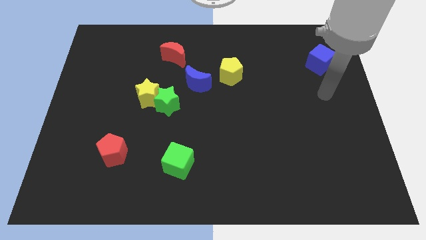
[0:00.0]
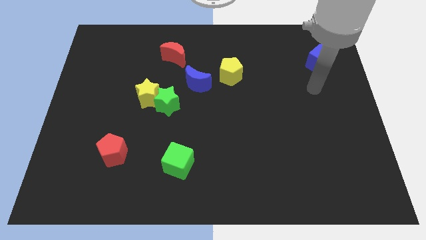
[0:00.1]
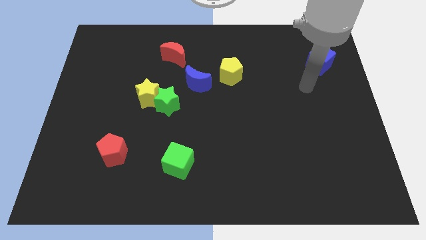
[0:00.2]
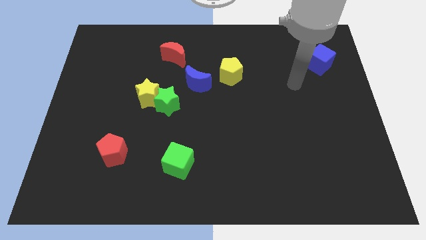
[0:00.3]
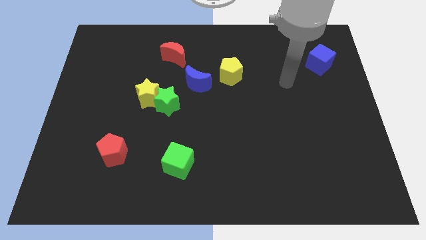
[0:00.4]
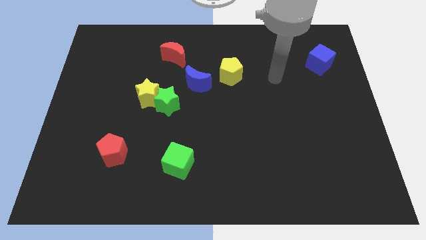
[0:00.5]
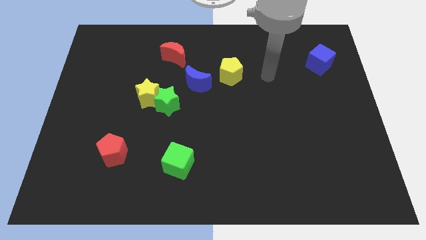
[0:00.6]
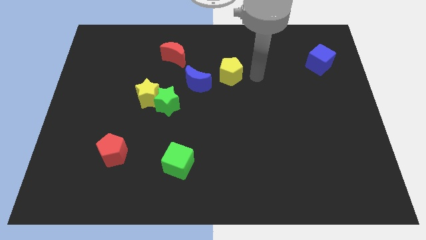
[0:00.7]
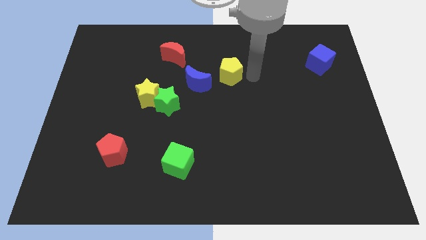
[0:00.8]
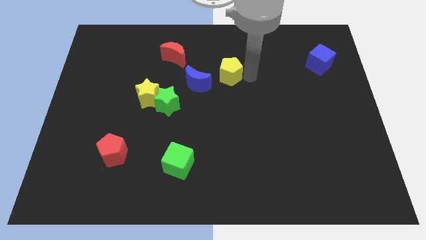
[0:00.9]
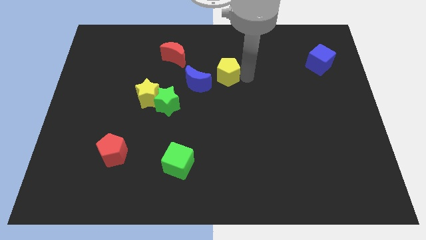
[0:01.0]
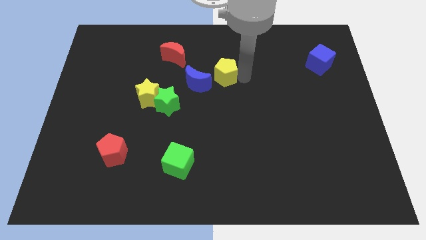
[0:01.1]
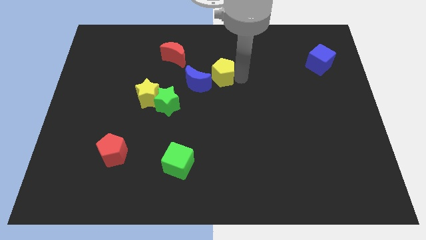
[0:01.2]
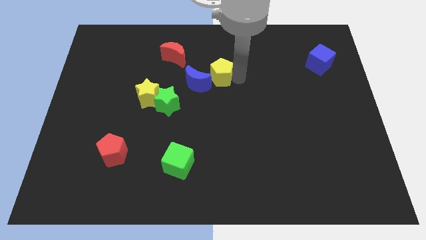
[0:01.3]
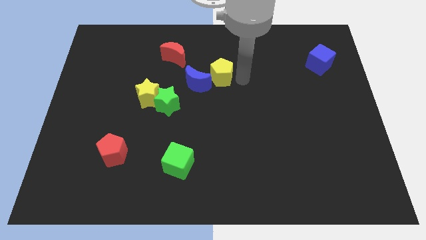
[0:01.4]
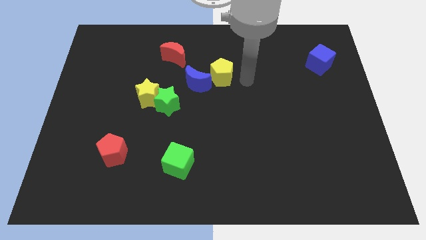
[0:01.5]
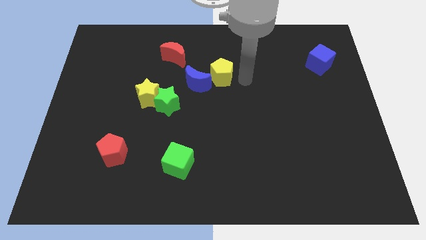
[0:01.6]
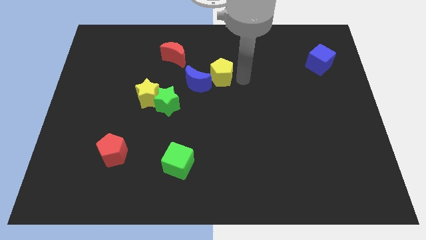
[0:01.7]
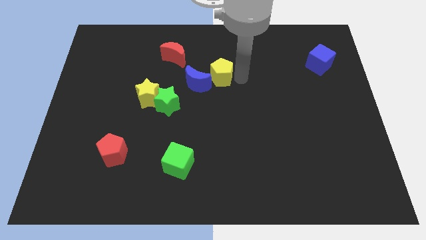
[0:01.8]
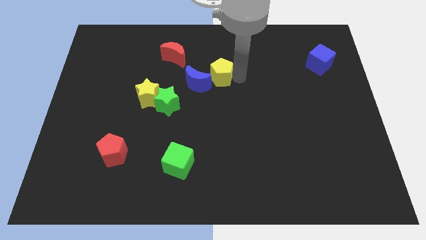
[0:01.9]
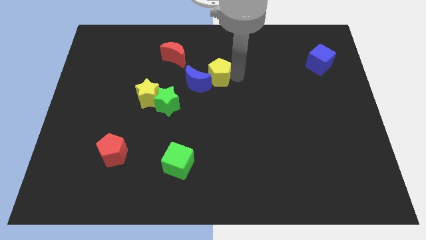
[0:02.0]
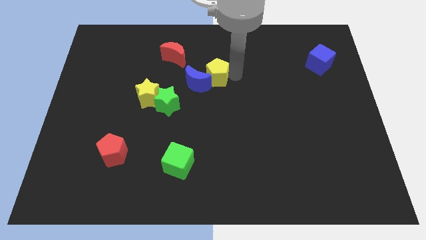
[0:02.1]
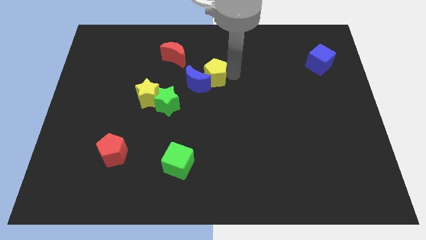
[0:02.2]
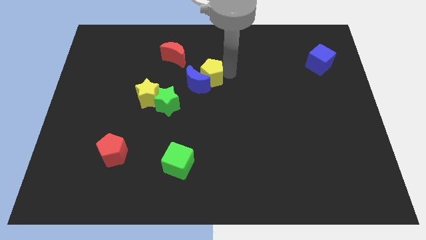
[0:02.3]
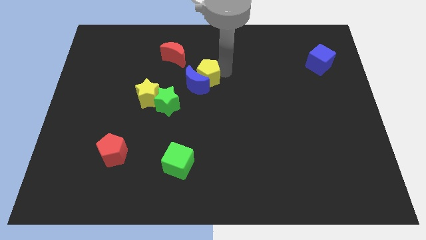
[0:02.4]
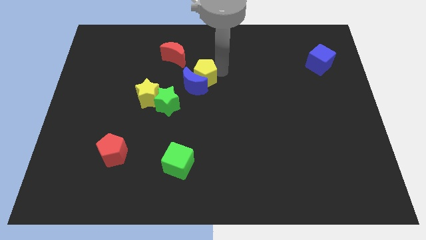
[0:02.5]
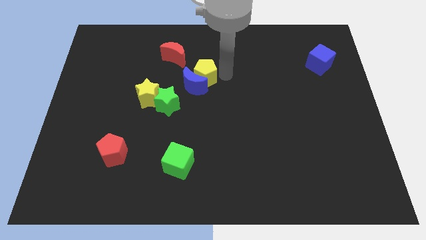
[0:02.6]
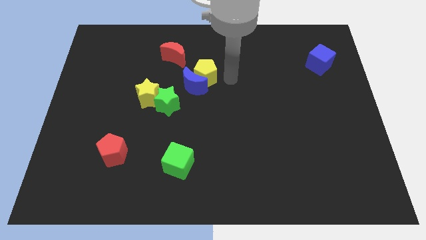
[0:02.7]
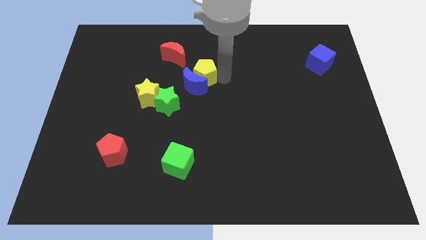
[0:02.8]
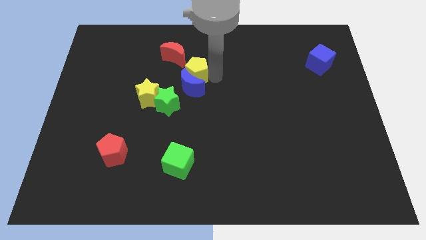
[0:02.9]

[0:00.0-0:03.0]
slide the yellow pentagon left a little

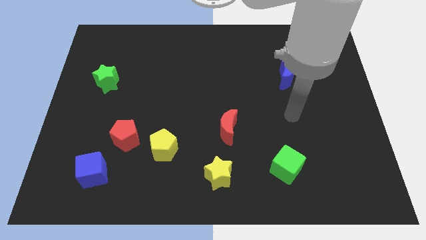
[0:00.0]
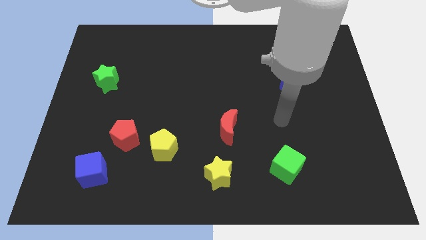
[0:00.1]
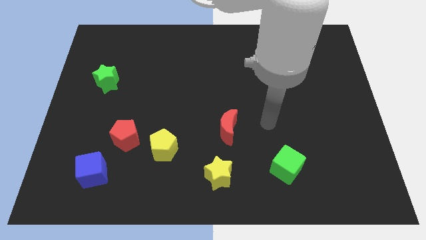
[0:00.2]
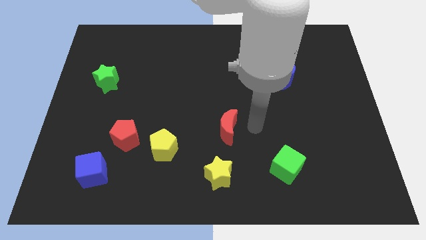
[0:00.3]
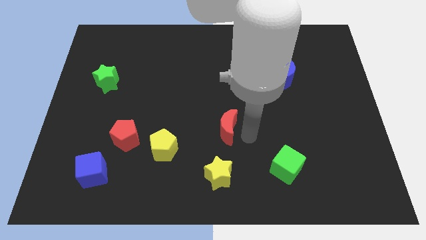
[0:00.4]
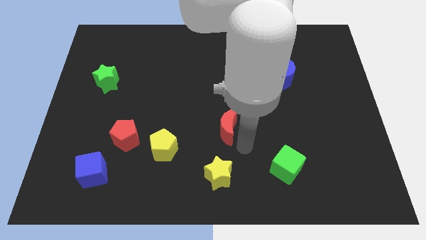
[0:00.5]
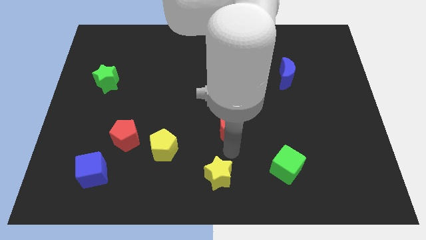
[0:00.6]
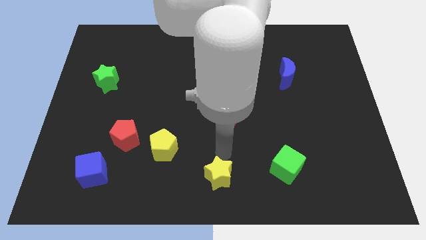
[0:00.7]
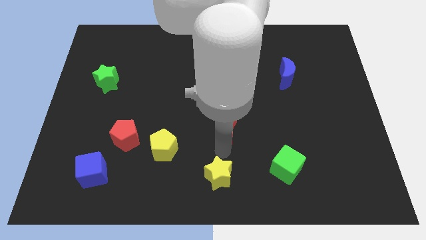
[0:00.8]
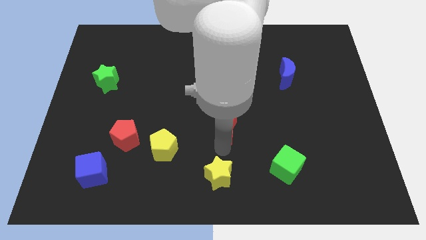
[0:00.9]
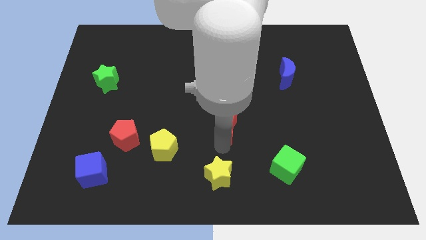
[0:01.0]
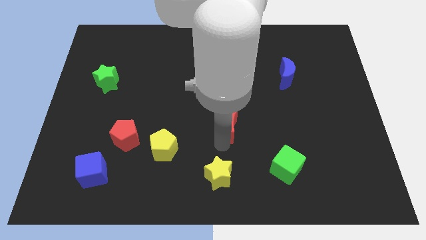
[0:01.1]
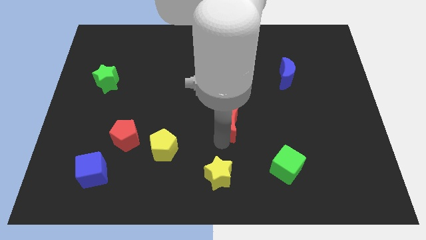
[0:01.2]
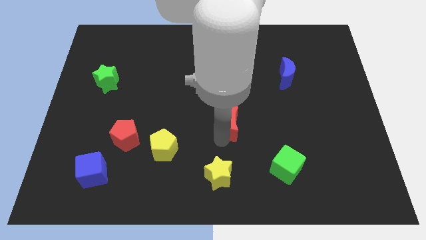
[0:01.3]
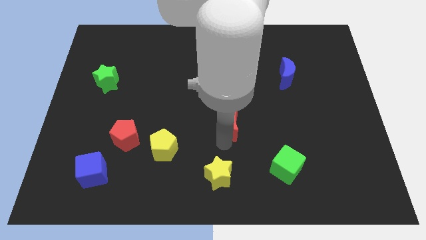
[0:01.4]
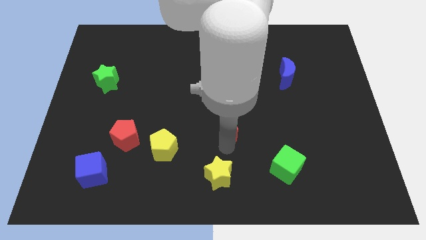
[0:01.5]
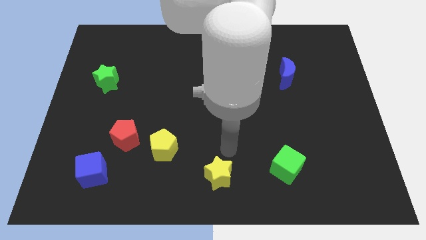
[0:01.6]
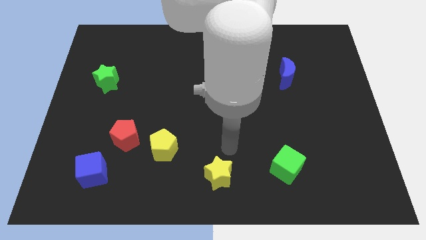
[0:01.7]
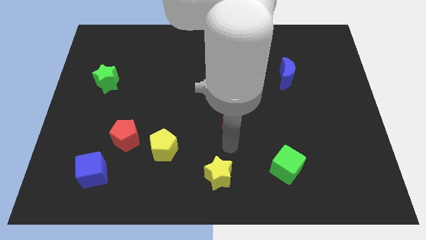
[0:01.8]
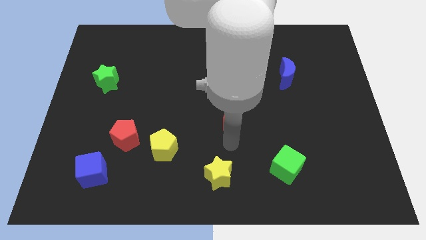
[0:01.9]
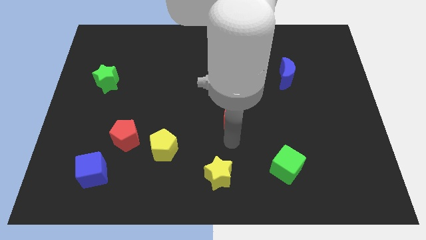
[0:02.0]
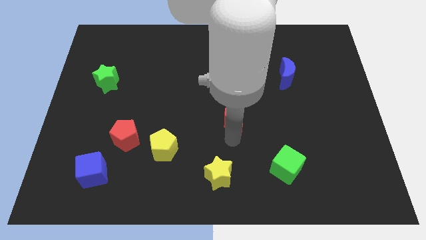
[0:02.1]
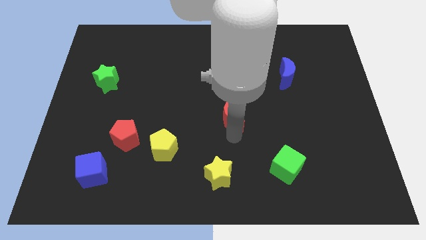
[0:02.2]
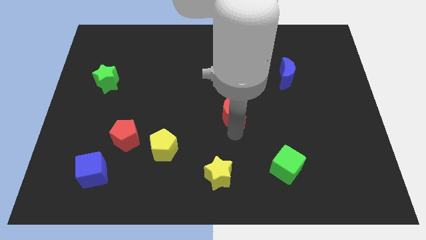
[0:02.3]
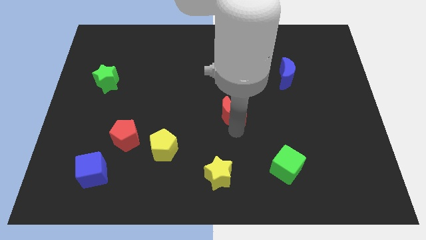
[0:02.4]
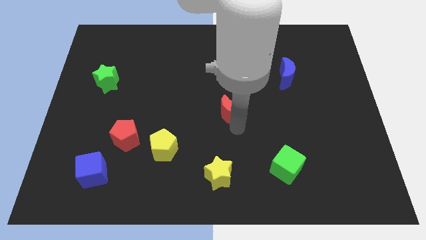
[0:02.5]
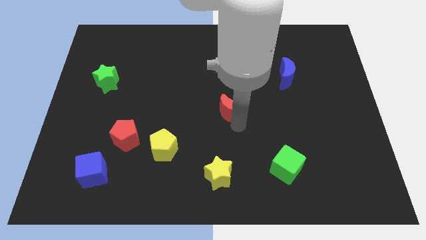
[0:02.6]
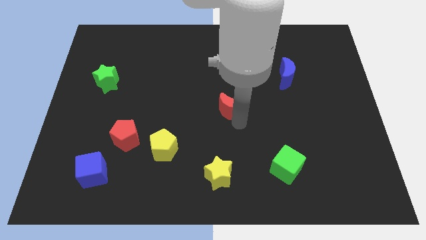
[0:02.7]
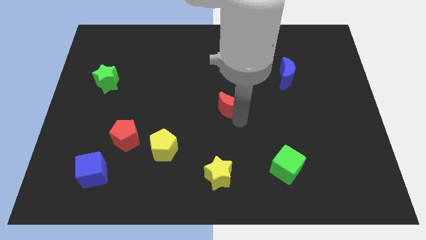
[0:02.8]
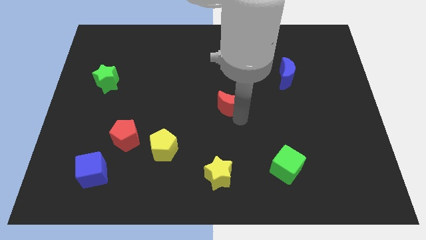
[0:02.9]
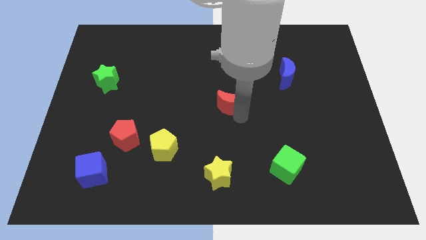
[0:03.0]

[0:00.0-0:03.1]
push the red moon up a little

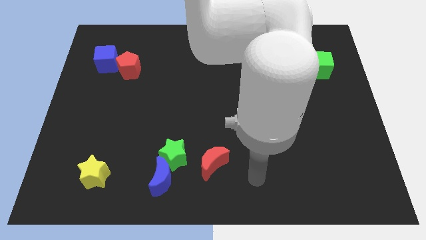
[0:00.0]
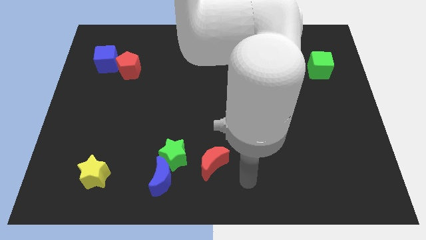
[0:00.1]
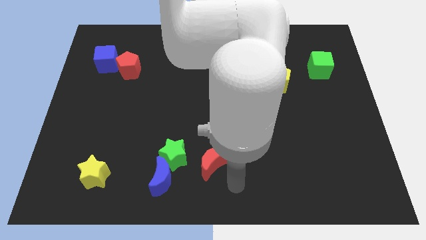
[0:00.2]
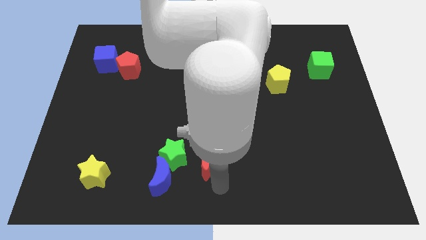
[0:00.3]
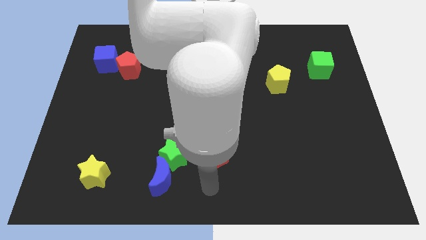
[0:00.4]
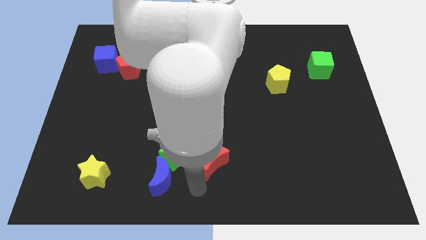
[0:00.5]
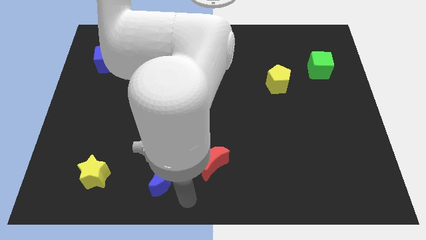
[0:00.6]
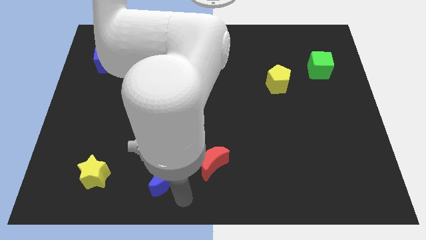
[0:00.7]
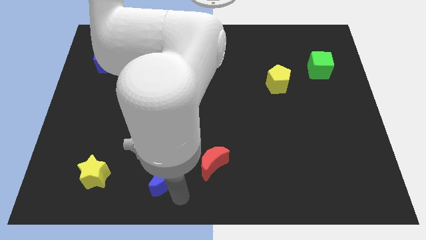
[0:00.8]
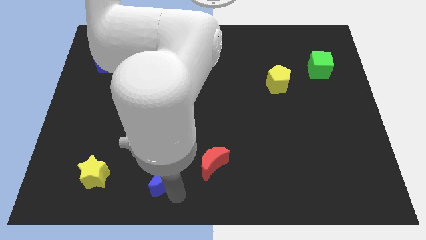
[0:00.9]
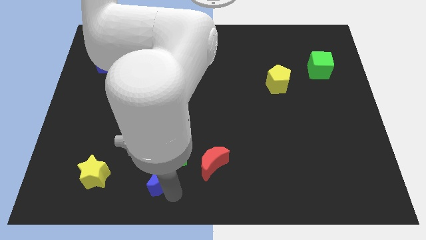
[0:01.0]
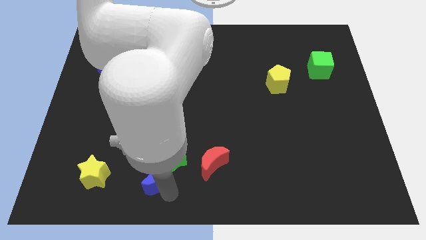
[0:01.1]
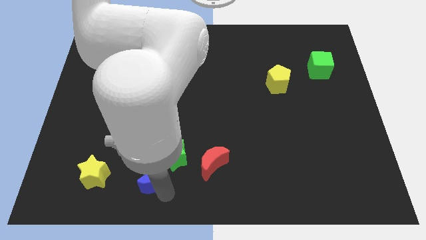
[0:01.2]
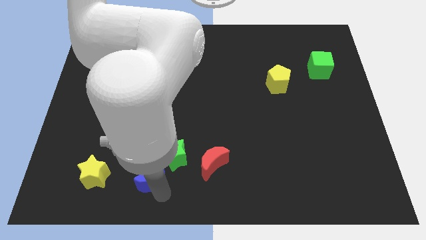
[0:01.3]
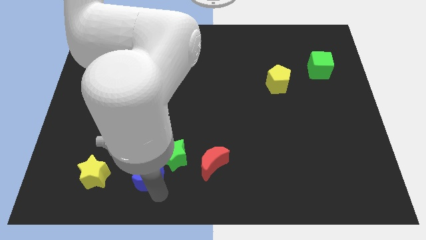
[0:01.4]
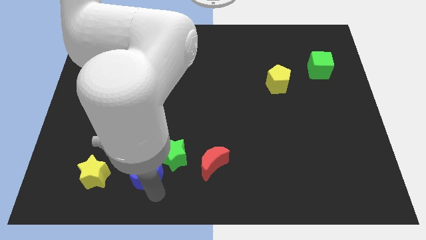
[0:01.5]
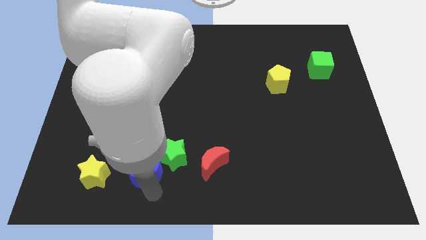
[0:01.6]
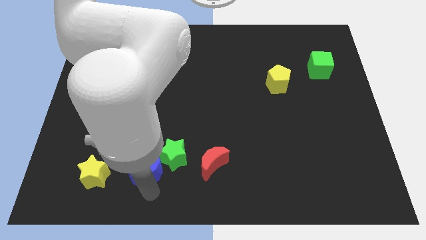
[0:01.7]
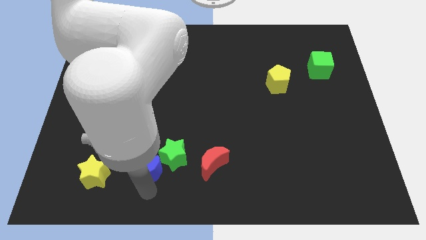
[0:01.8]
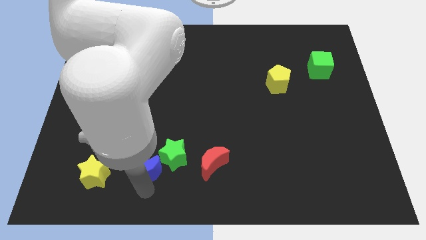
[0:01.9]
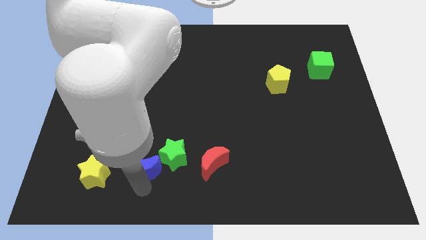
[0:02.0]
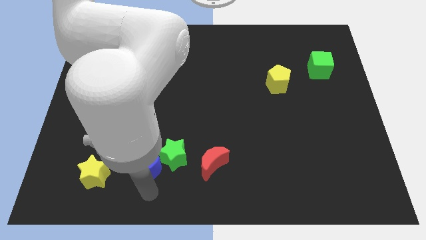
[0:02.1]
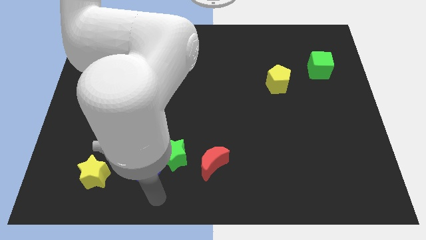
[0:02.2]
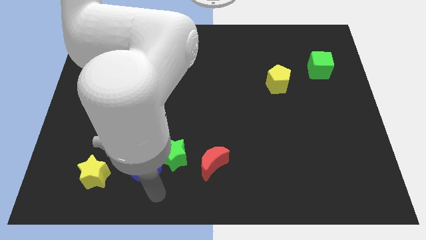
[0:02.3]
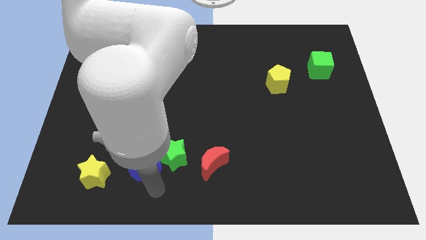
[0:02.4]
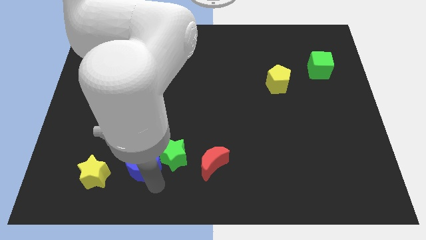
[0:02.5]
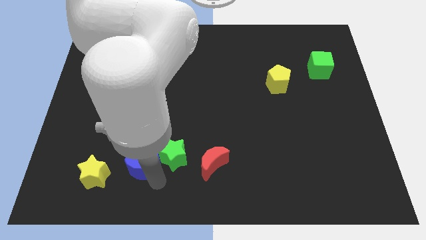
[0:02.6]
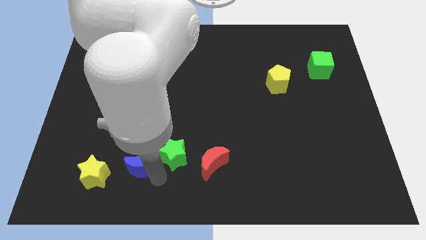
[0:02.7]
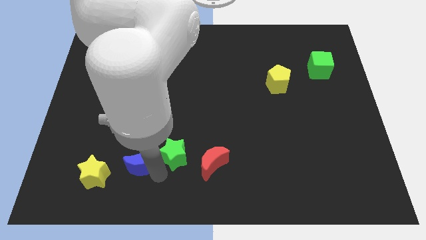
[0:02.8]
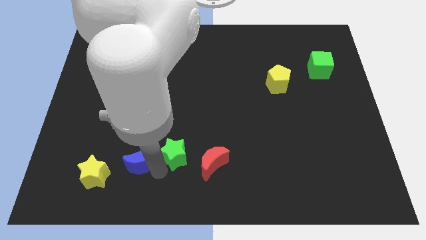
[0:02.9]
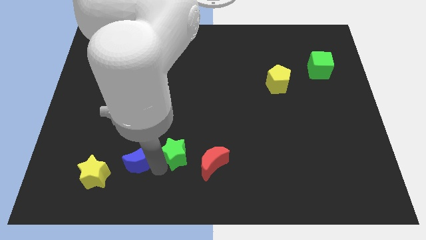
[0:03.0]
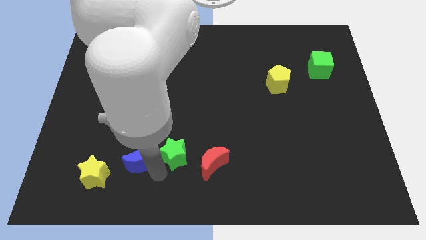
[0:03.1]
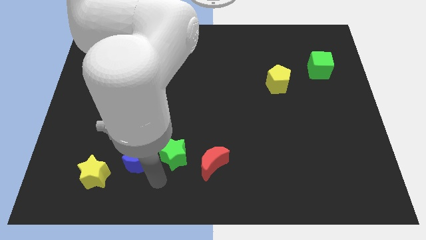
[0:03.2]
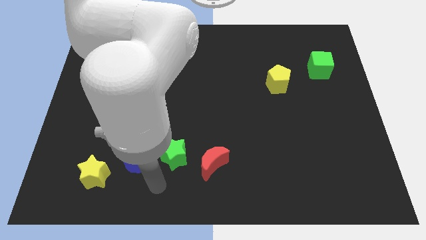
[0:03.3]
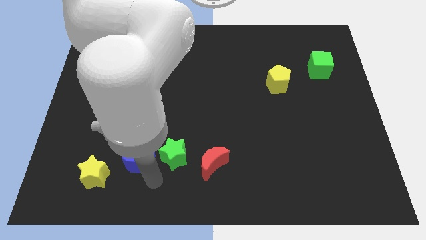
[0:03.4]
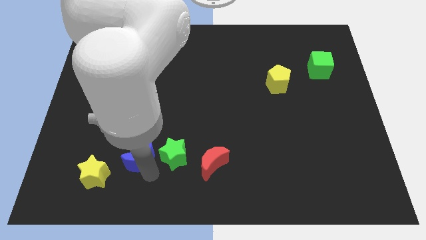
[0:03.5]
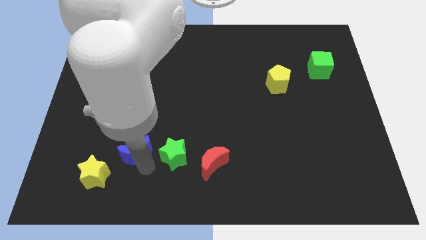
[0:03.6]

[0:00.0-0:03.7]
slightly move the blue moon upwards and to the left
